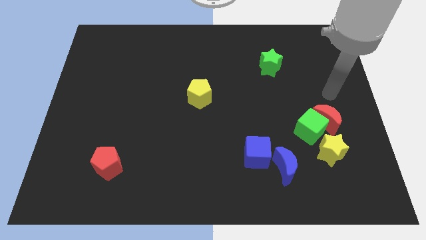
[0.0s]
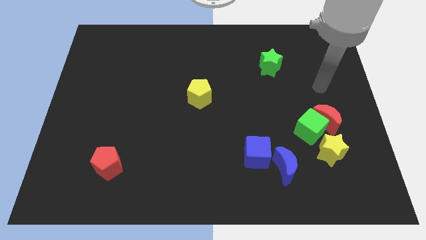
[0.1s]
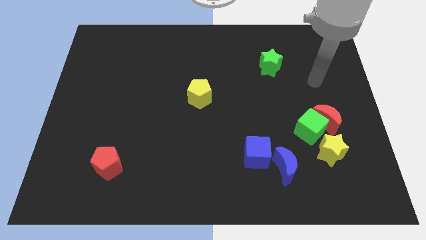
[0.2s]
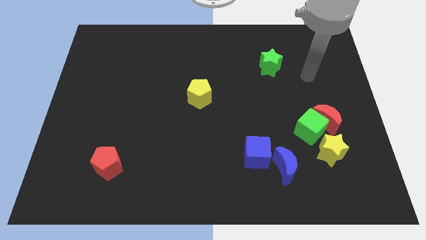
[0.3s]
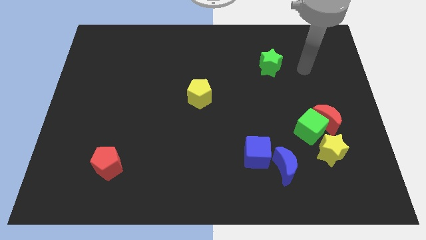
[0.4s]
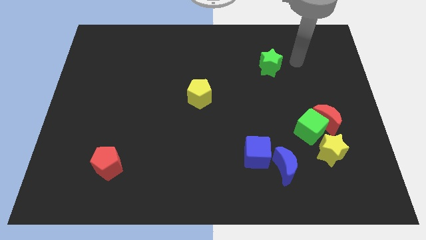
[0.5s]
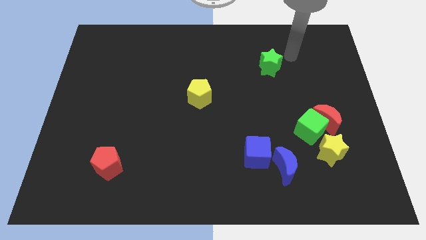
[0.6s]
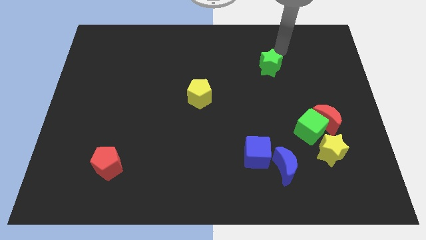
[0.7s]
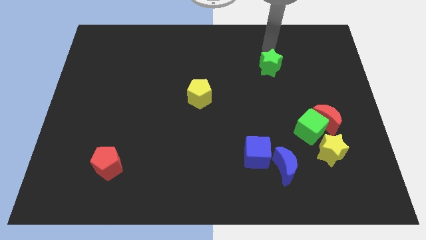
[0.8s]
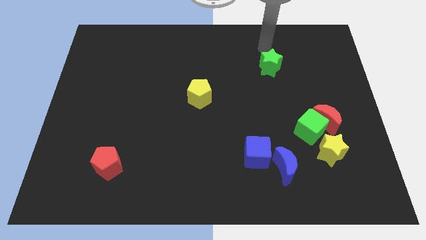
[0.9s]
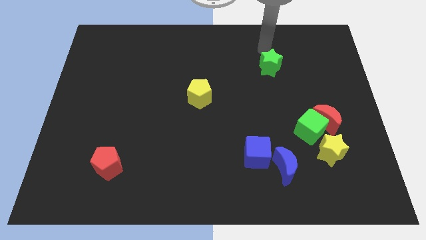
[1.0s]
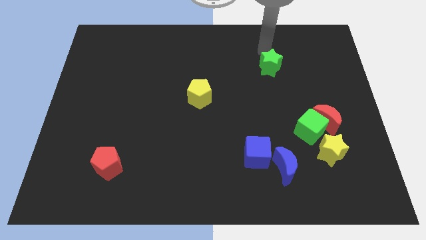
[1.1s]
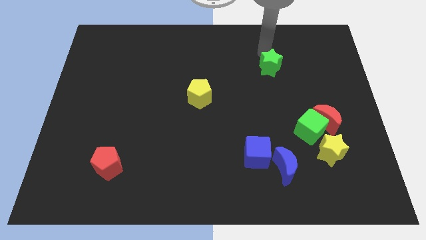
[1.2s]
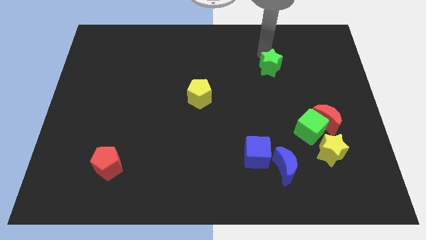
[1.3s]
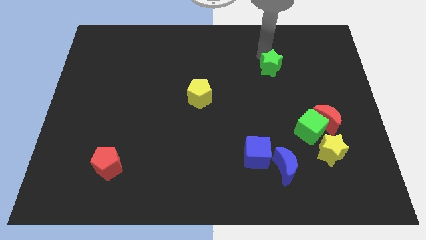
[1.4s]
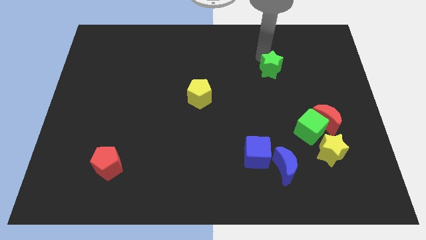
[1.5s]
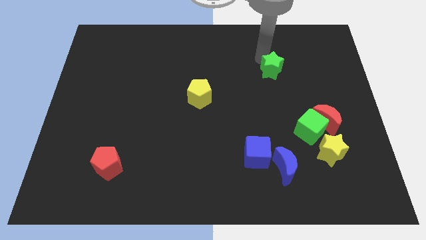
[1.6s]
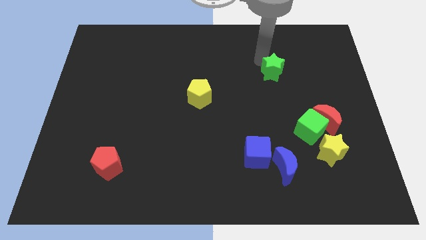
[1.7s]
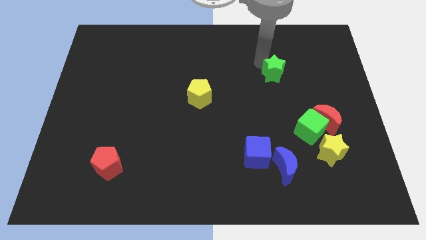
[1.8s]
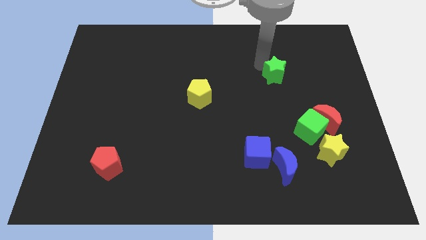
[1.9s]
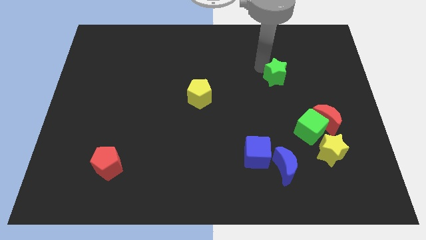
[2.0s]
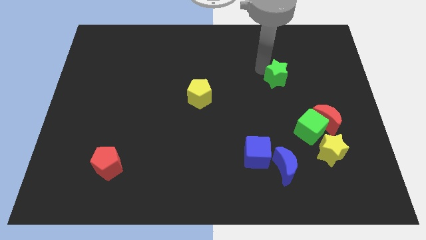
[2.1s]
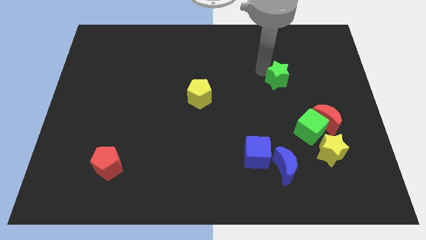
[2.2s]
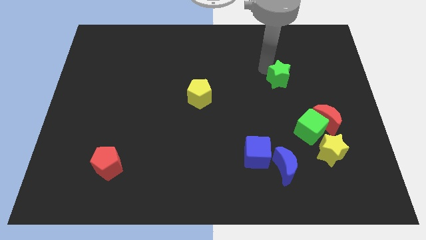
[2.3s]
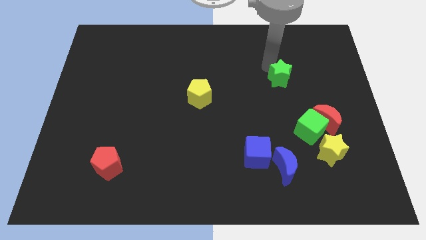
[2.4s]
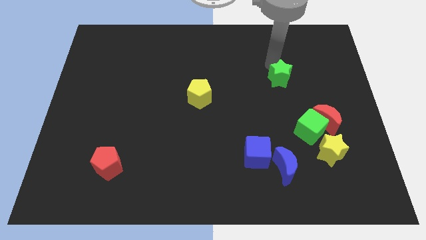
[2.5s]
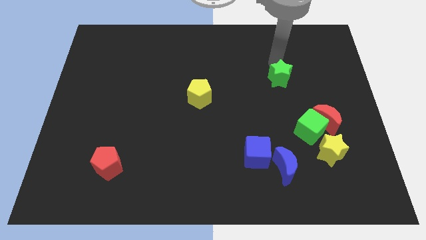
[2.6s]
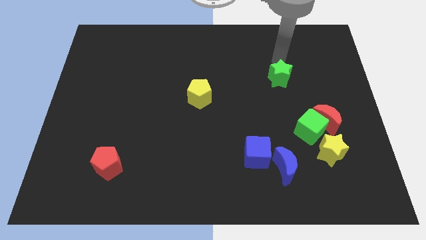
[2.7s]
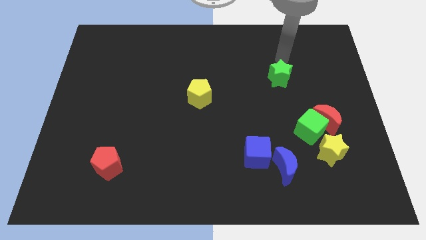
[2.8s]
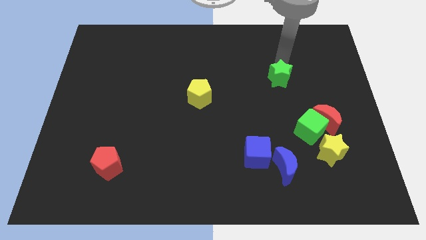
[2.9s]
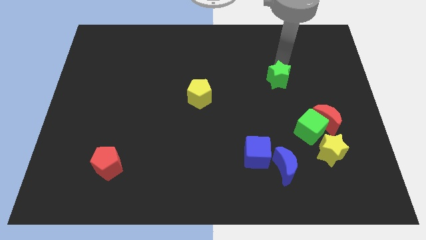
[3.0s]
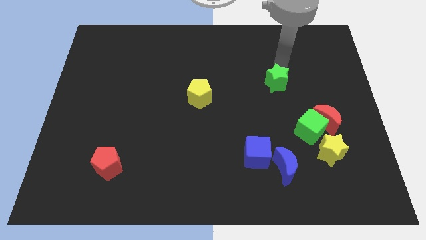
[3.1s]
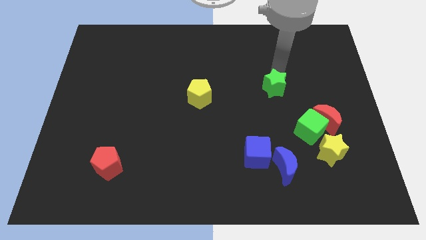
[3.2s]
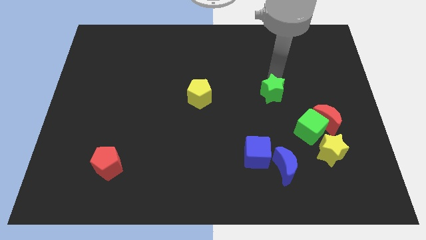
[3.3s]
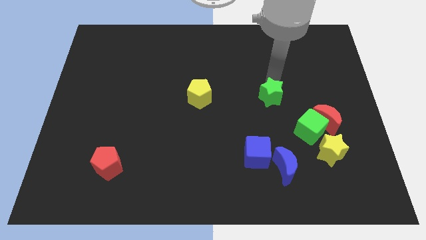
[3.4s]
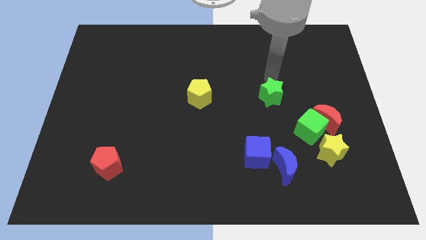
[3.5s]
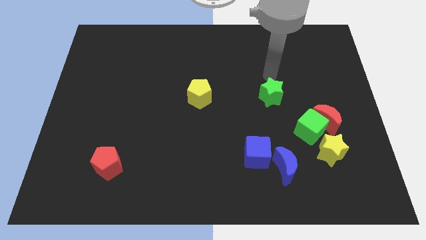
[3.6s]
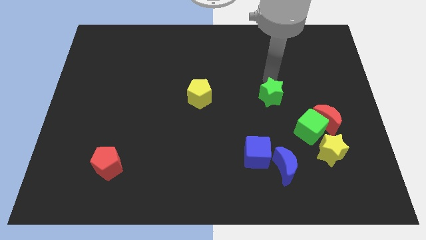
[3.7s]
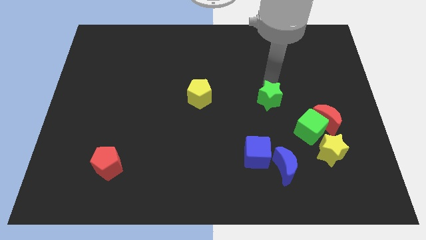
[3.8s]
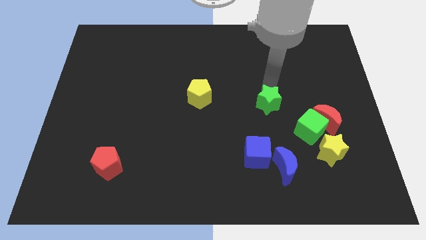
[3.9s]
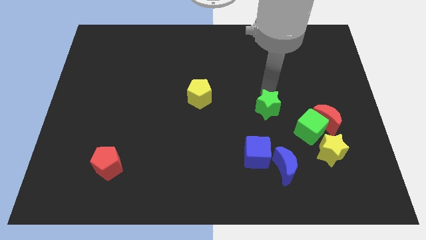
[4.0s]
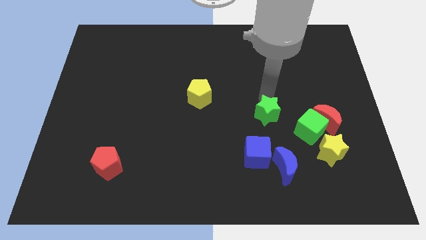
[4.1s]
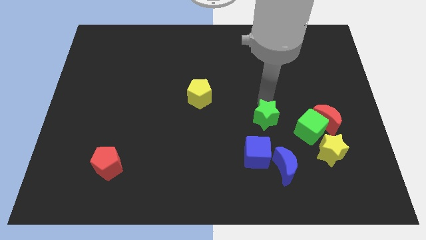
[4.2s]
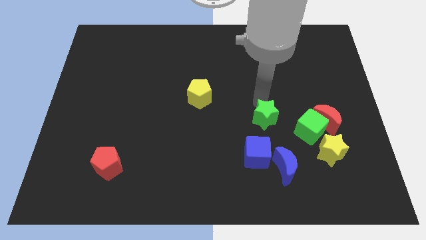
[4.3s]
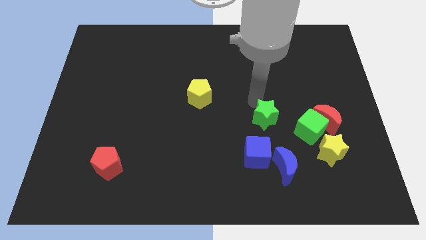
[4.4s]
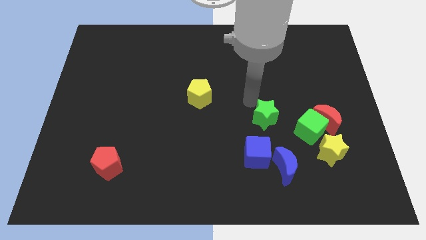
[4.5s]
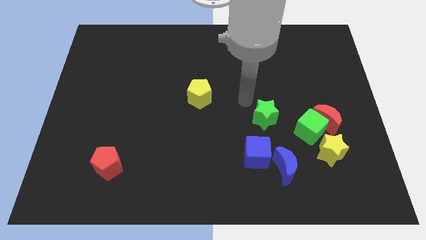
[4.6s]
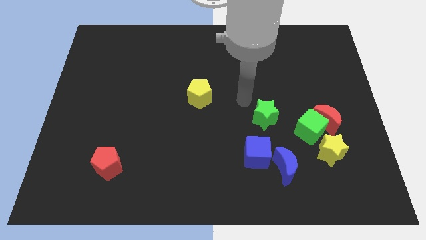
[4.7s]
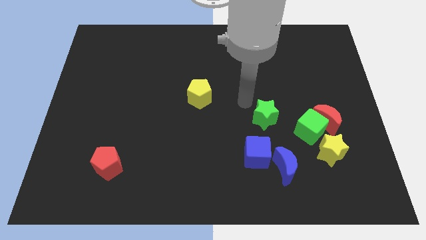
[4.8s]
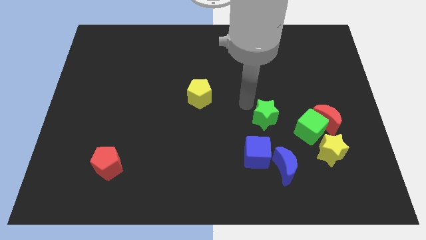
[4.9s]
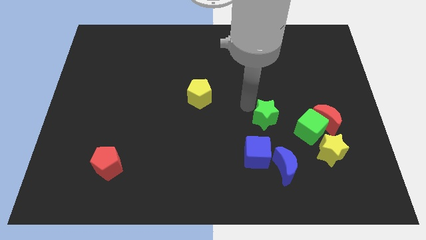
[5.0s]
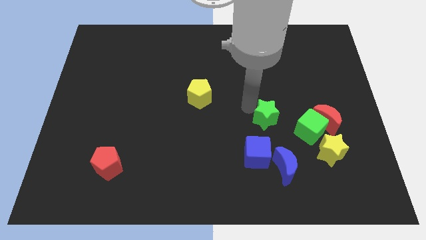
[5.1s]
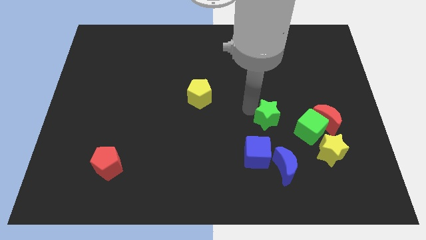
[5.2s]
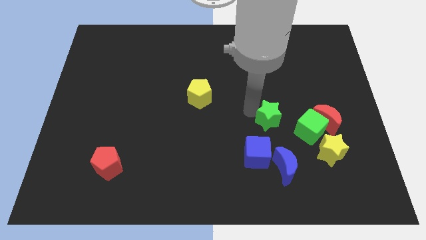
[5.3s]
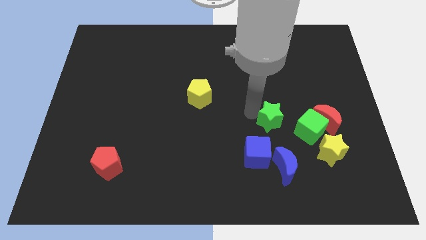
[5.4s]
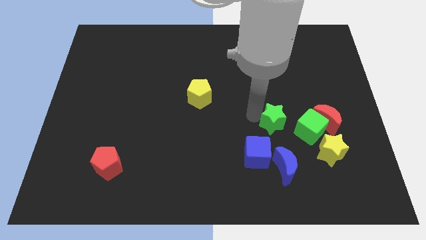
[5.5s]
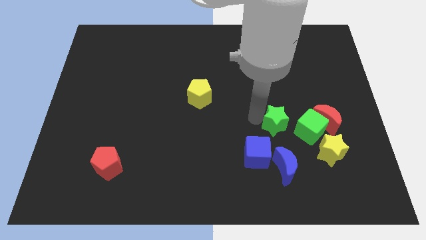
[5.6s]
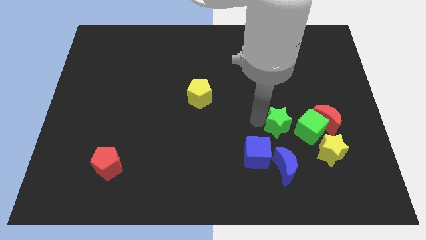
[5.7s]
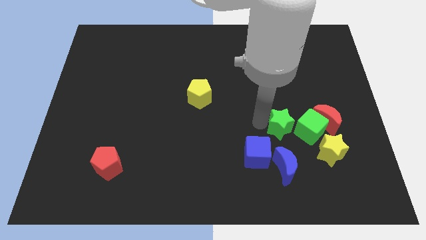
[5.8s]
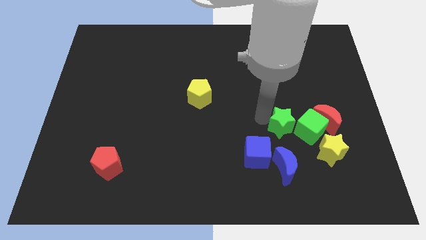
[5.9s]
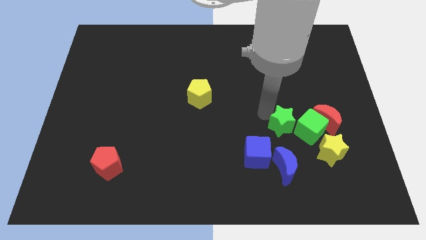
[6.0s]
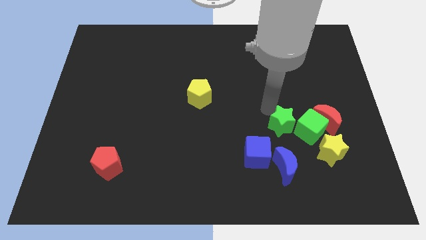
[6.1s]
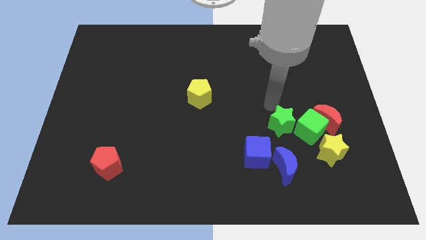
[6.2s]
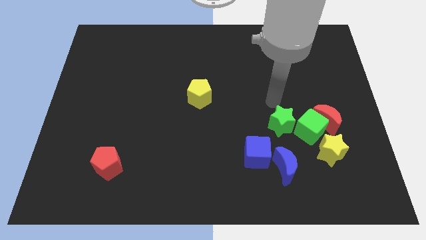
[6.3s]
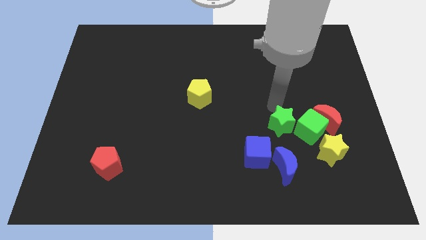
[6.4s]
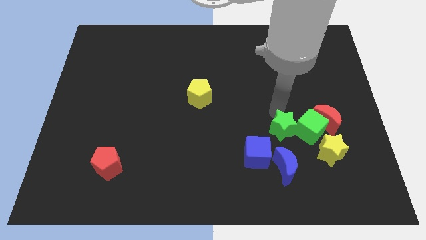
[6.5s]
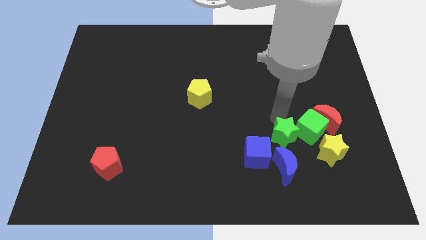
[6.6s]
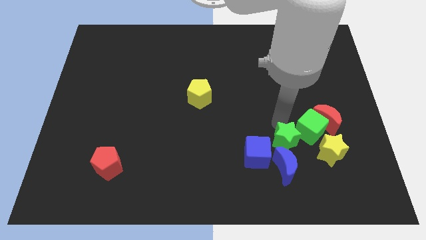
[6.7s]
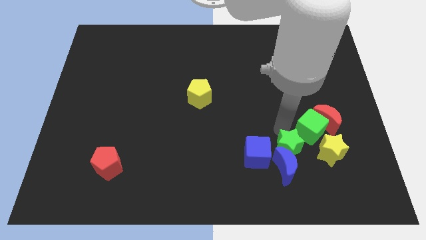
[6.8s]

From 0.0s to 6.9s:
push the green star close to the blue moon
